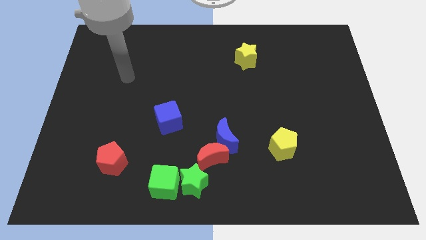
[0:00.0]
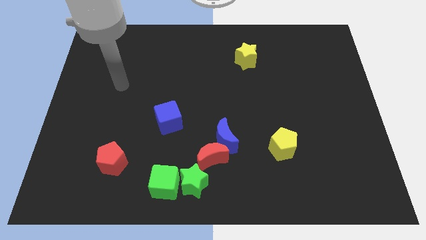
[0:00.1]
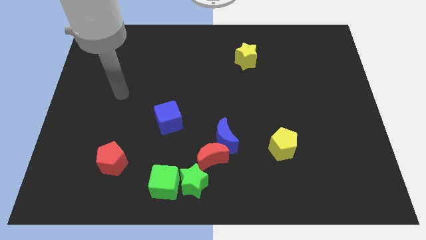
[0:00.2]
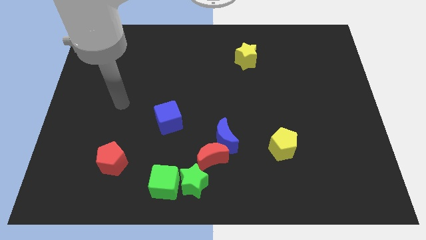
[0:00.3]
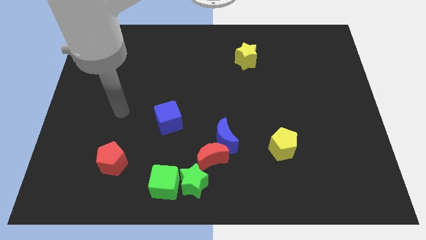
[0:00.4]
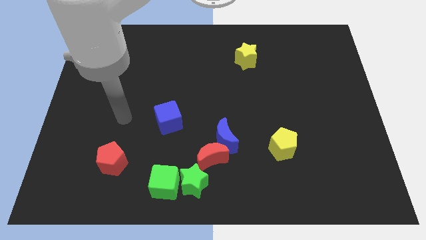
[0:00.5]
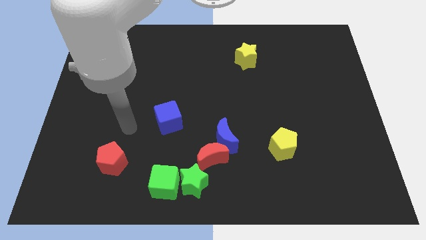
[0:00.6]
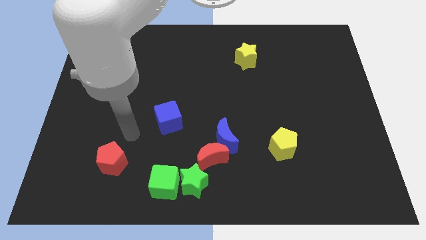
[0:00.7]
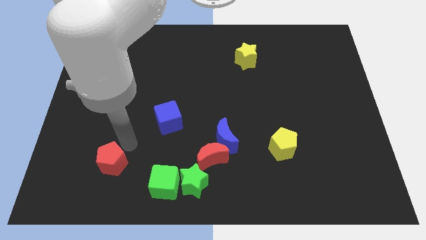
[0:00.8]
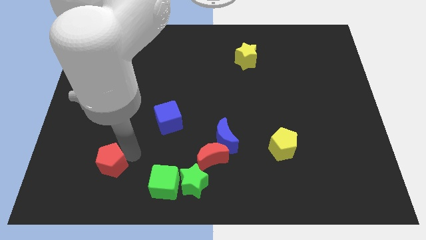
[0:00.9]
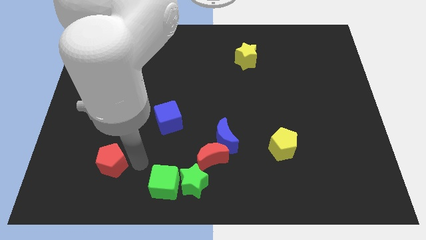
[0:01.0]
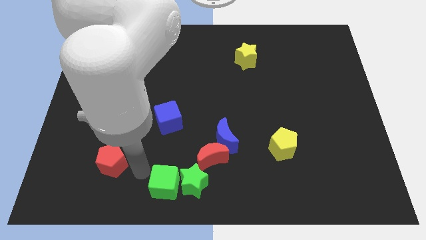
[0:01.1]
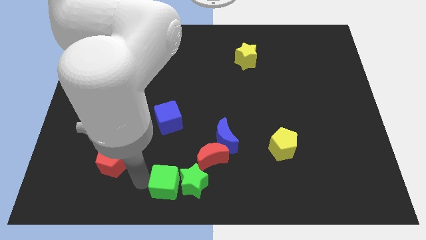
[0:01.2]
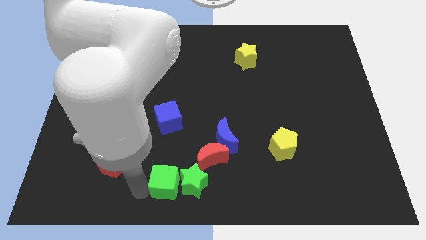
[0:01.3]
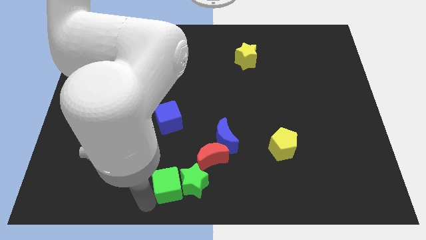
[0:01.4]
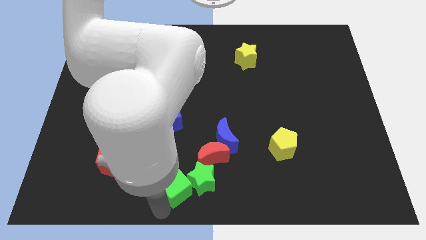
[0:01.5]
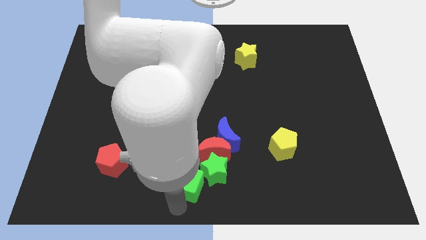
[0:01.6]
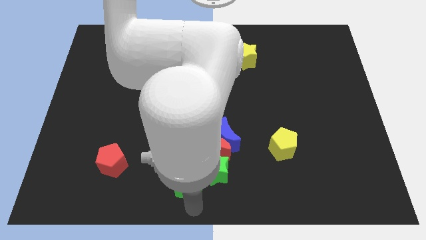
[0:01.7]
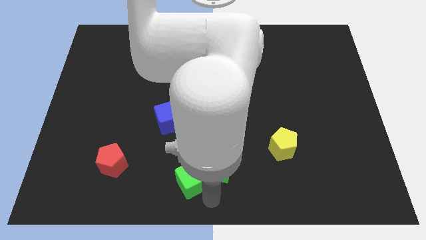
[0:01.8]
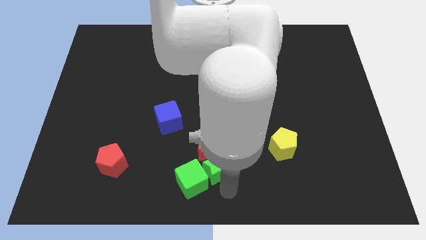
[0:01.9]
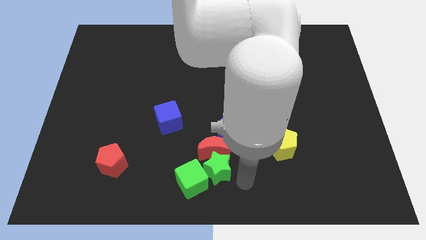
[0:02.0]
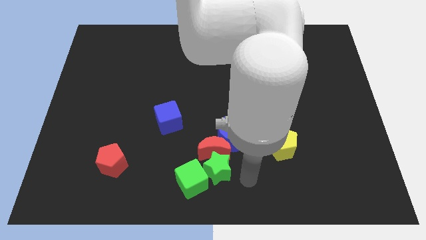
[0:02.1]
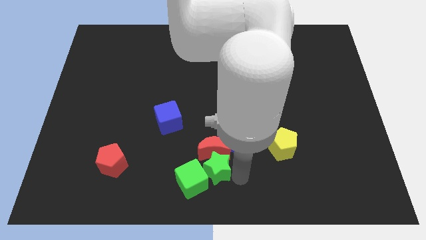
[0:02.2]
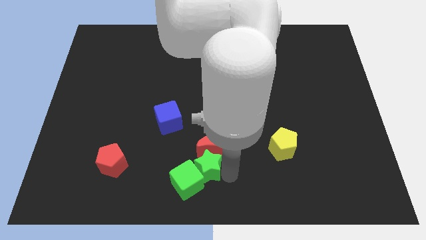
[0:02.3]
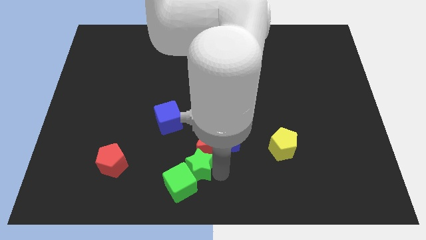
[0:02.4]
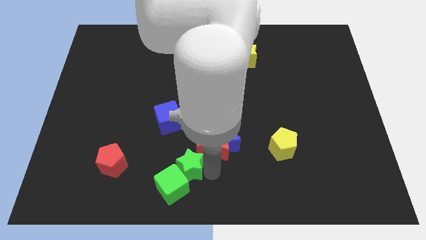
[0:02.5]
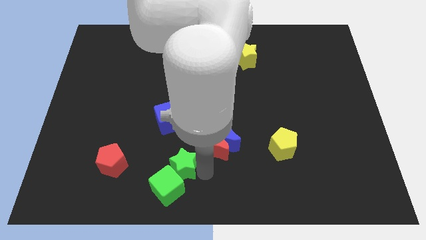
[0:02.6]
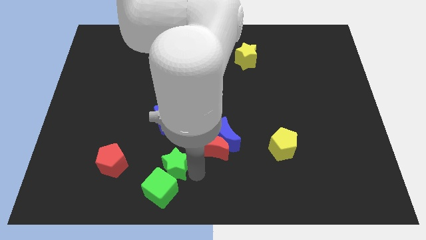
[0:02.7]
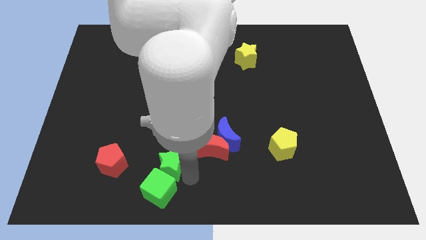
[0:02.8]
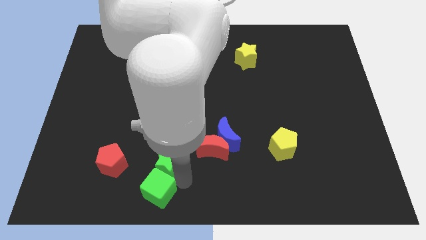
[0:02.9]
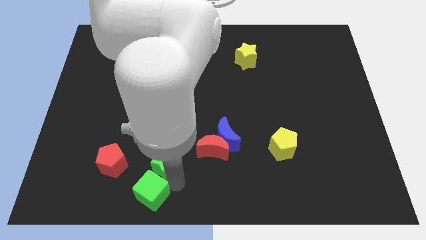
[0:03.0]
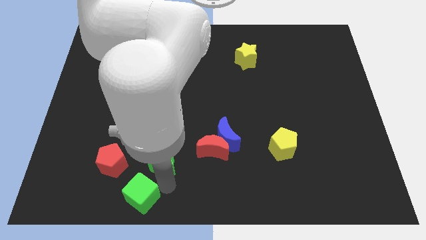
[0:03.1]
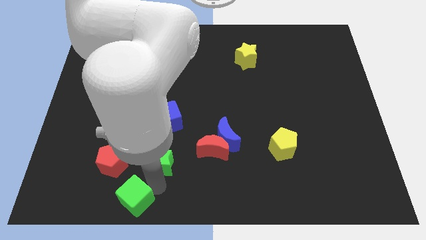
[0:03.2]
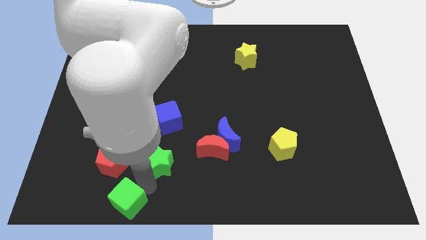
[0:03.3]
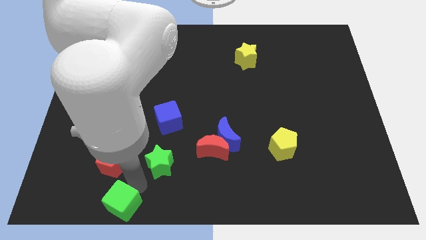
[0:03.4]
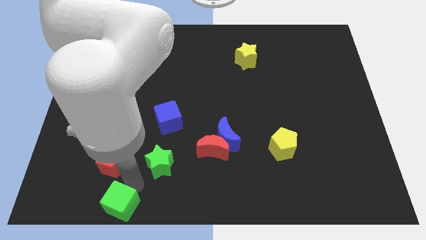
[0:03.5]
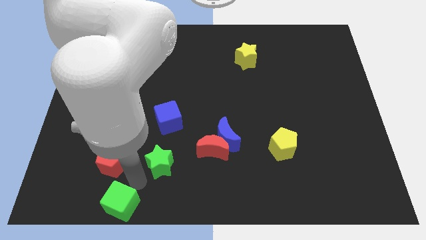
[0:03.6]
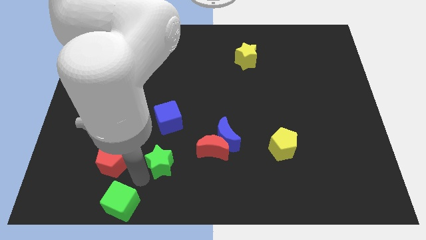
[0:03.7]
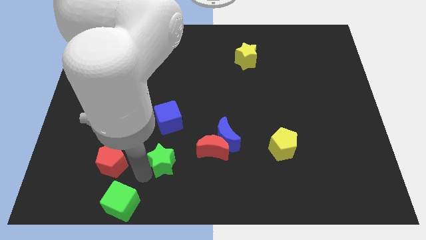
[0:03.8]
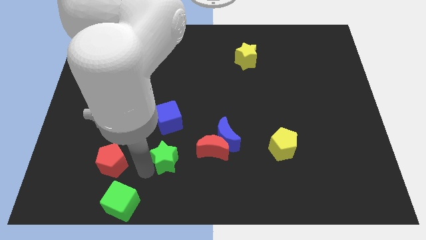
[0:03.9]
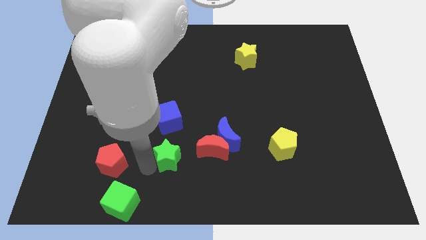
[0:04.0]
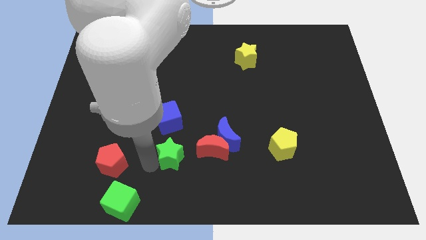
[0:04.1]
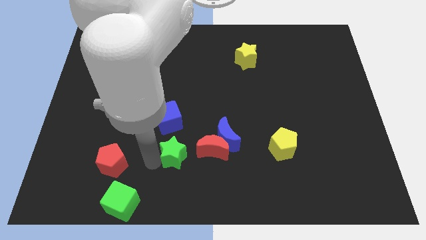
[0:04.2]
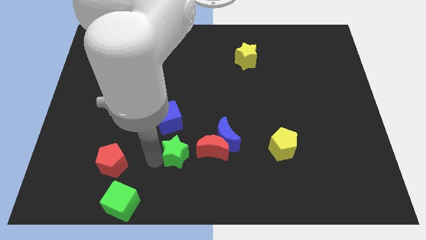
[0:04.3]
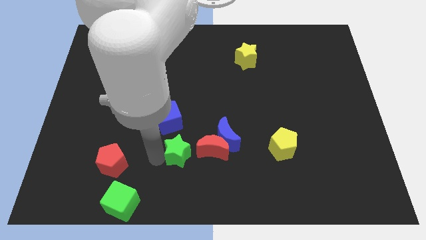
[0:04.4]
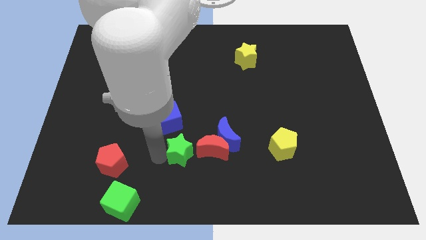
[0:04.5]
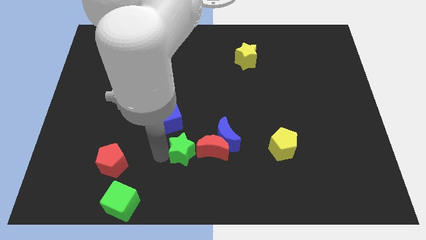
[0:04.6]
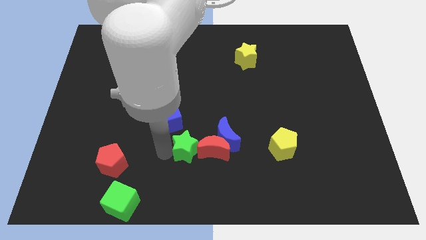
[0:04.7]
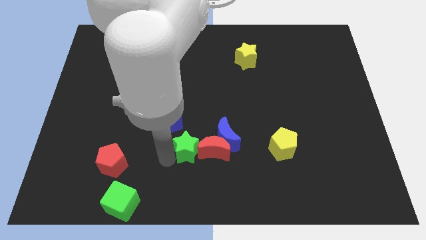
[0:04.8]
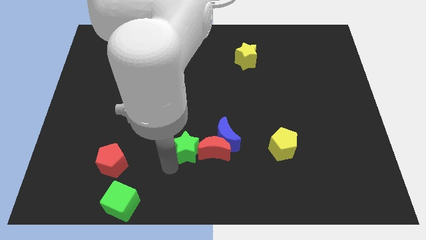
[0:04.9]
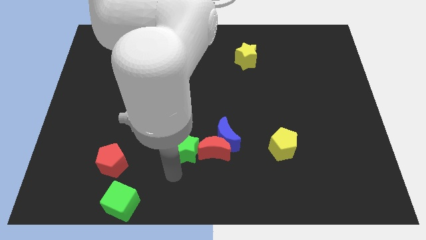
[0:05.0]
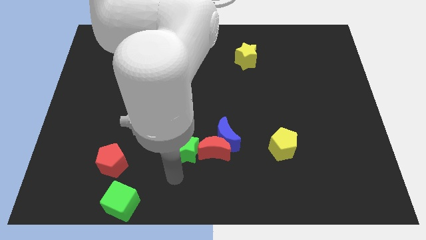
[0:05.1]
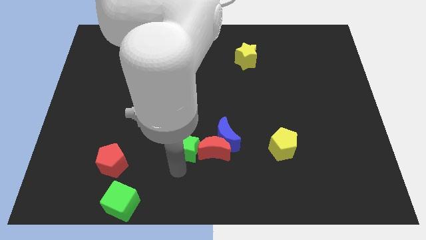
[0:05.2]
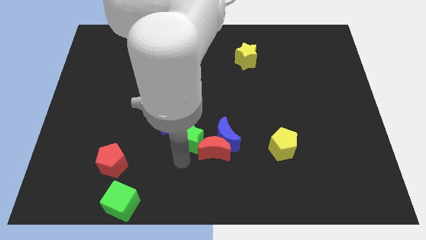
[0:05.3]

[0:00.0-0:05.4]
put the green star to the center of the board

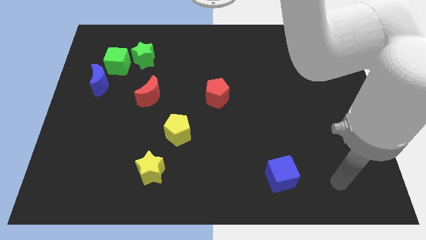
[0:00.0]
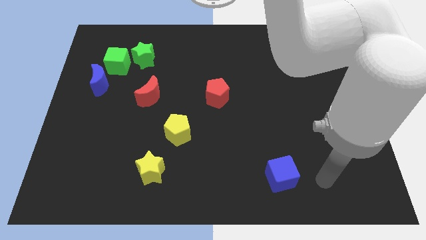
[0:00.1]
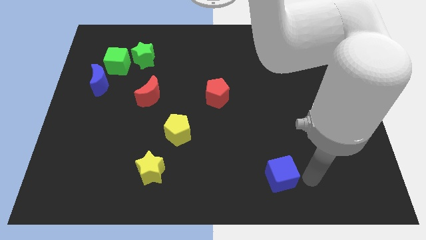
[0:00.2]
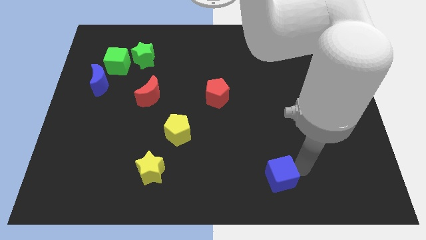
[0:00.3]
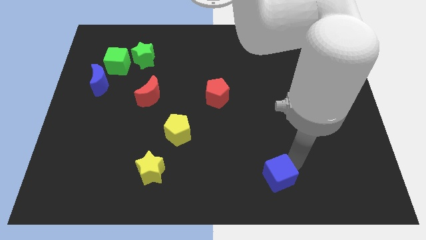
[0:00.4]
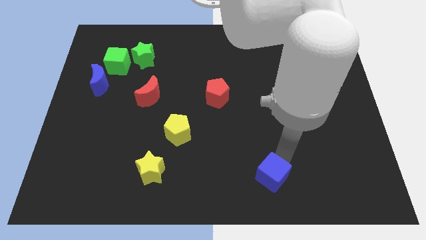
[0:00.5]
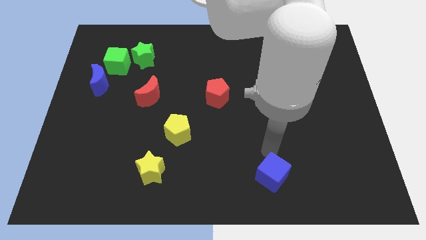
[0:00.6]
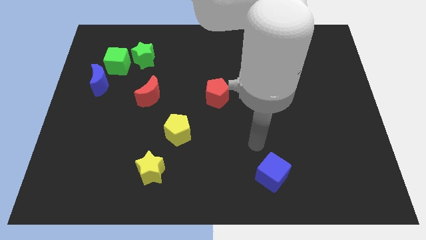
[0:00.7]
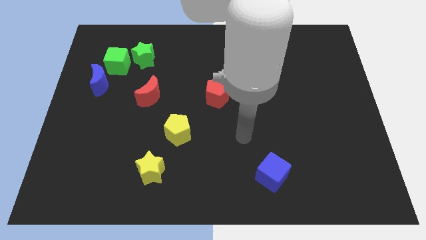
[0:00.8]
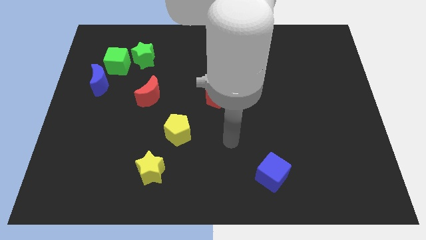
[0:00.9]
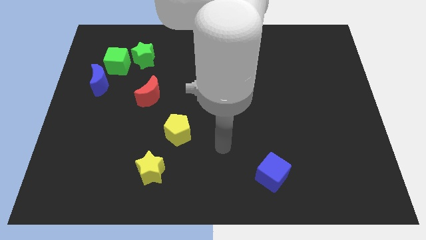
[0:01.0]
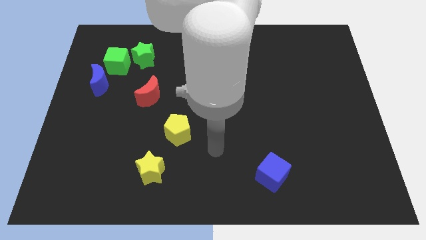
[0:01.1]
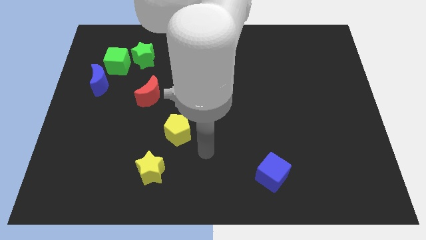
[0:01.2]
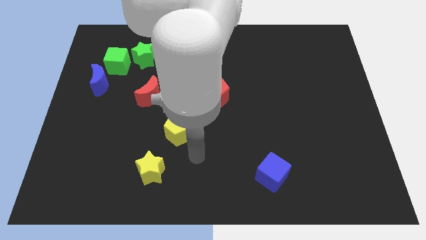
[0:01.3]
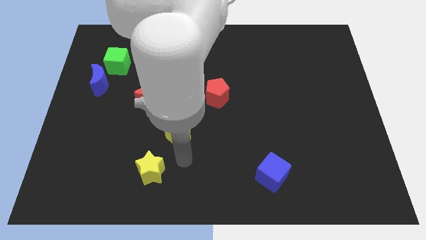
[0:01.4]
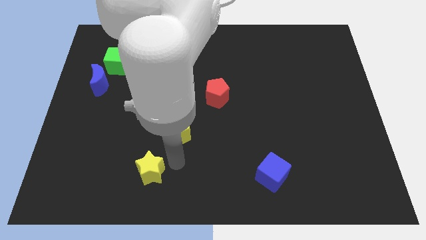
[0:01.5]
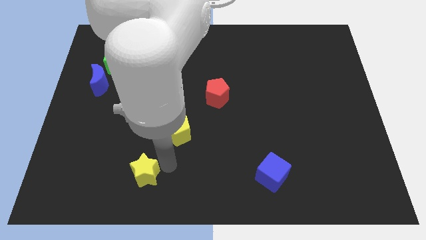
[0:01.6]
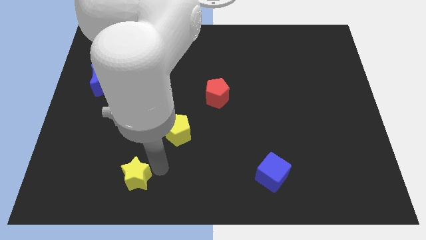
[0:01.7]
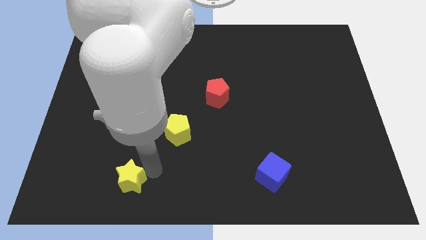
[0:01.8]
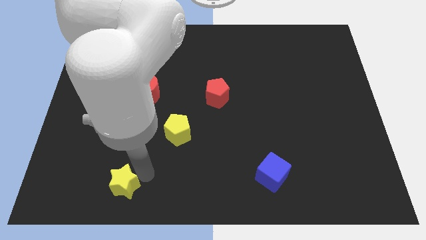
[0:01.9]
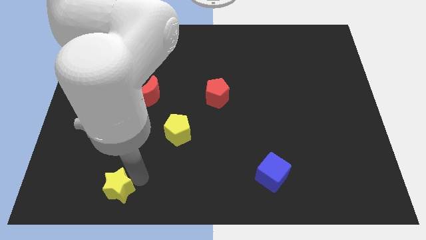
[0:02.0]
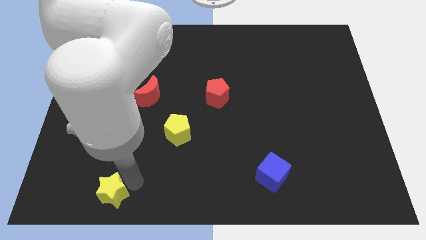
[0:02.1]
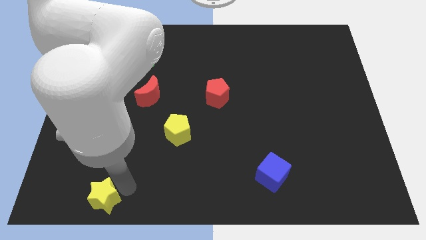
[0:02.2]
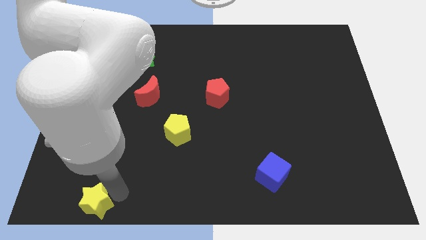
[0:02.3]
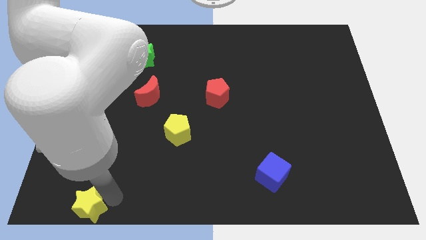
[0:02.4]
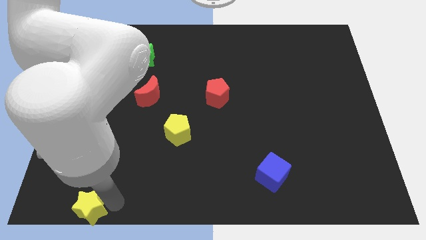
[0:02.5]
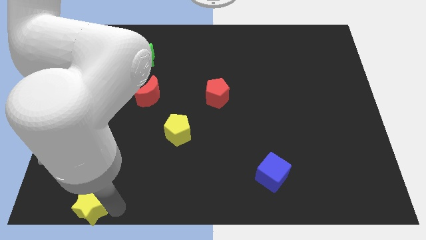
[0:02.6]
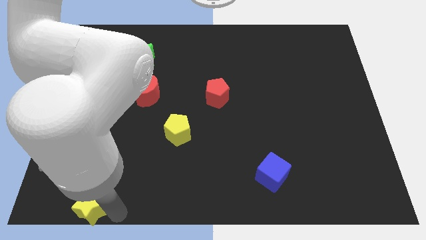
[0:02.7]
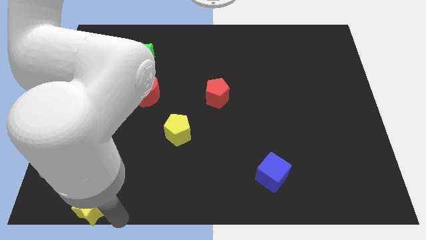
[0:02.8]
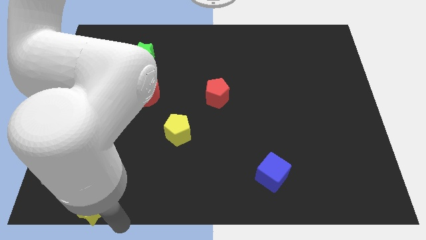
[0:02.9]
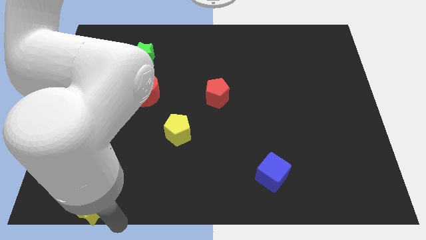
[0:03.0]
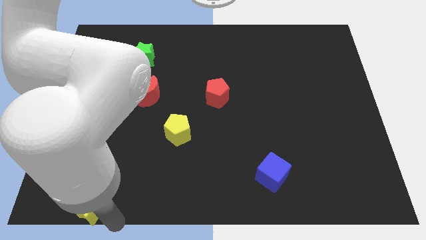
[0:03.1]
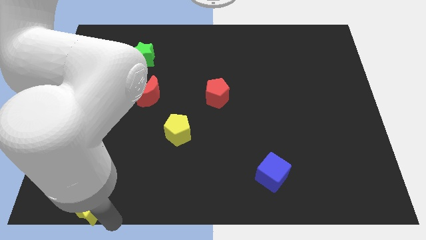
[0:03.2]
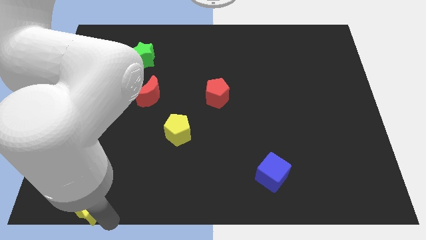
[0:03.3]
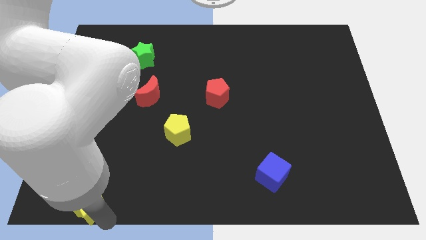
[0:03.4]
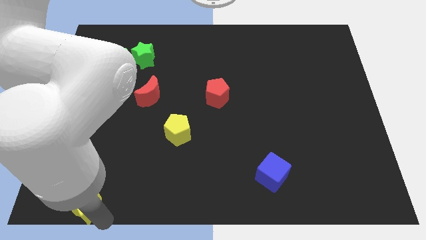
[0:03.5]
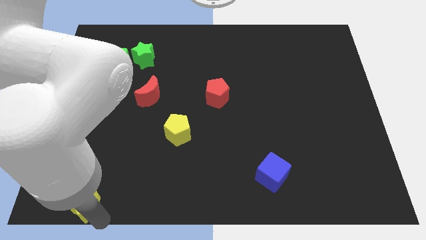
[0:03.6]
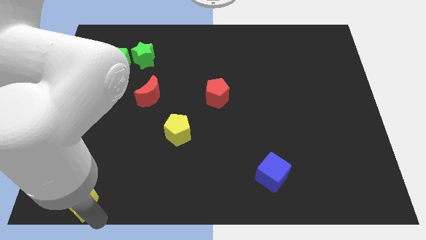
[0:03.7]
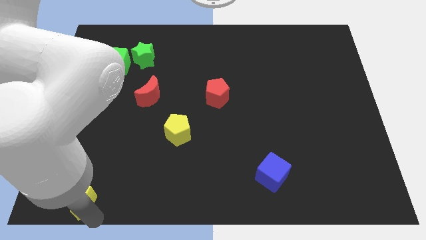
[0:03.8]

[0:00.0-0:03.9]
push the yellow star to the bottom left corner
